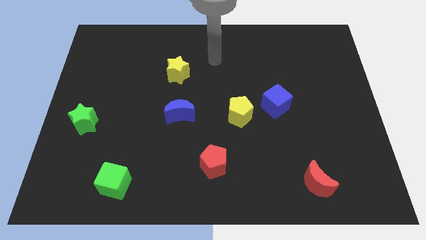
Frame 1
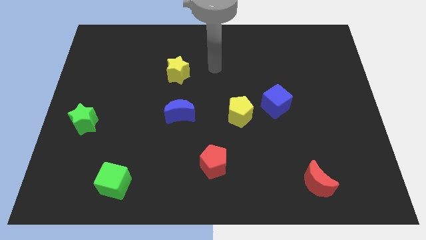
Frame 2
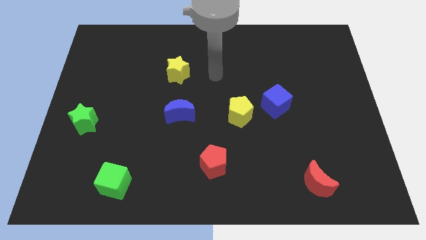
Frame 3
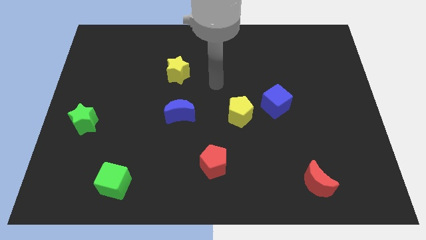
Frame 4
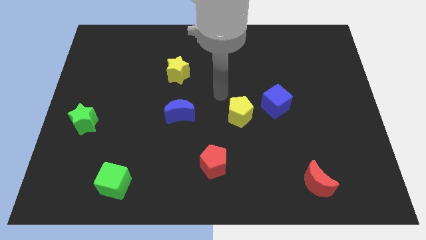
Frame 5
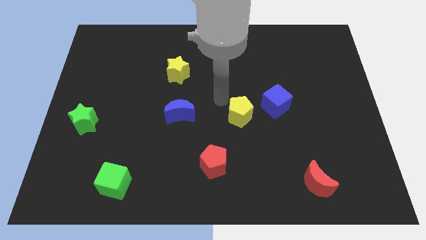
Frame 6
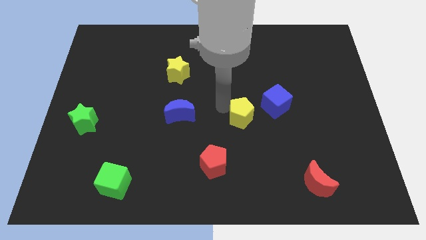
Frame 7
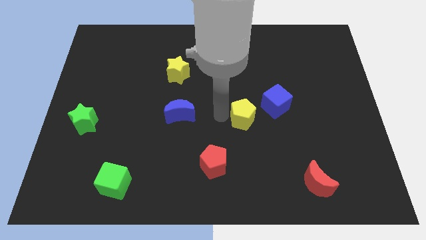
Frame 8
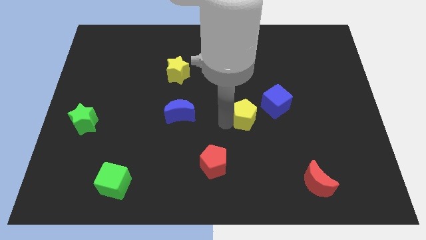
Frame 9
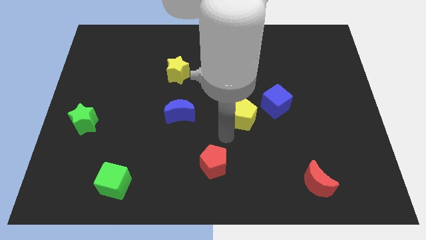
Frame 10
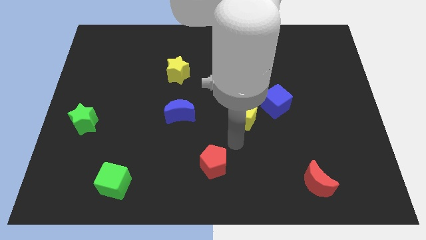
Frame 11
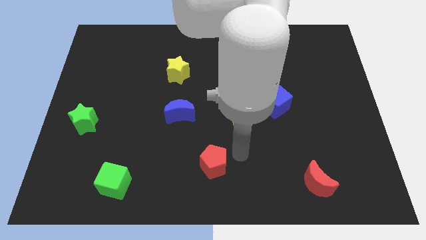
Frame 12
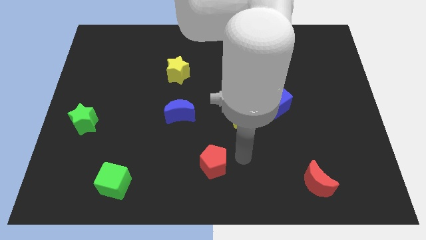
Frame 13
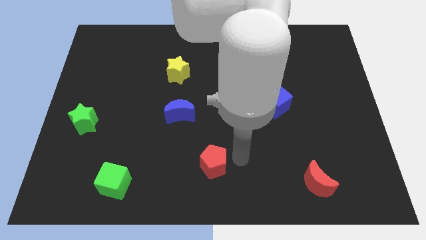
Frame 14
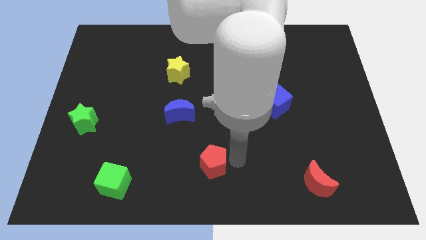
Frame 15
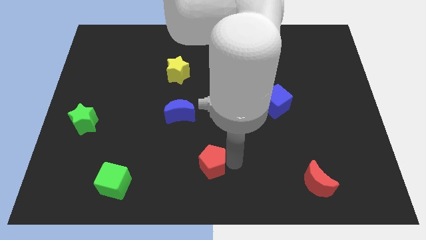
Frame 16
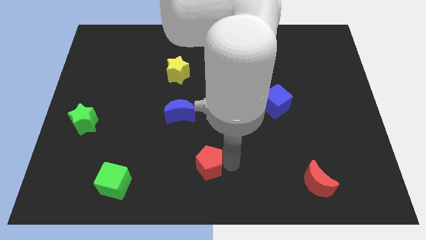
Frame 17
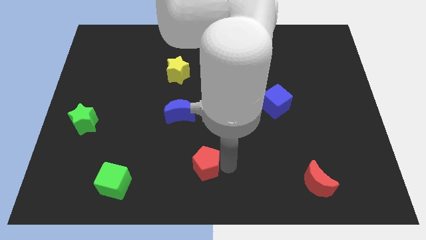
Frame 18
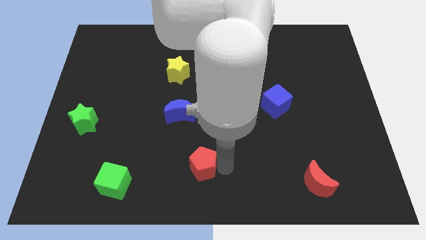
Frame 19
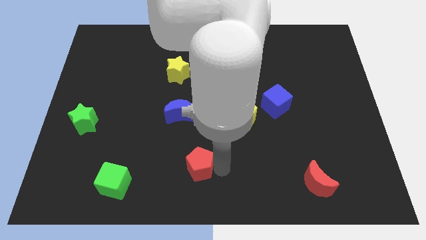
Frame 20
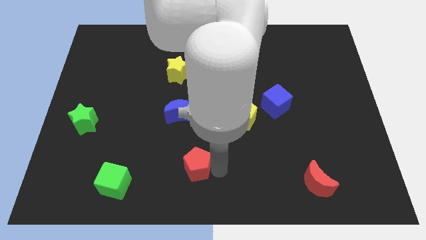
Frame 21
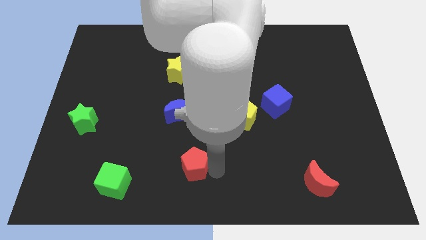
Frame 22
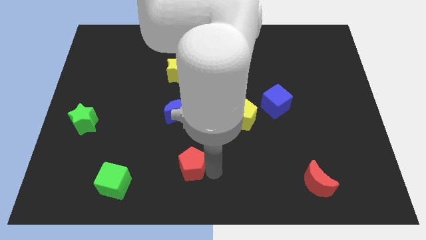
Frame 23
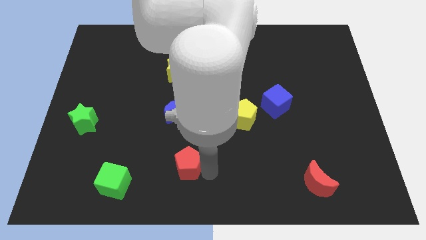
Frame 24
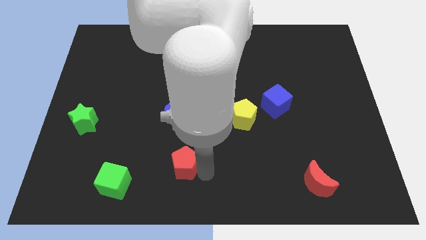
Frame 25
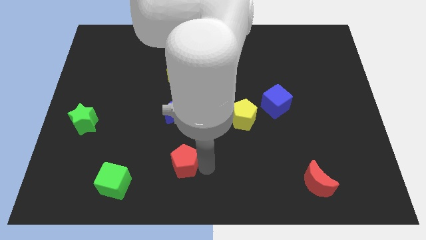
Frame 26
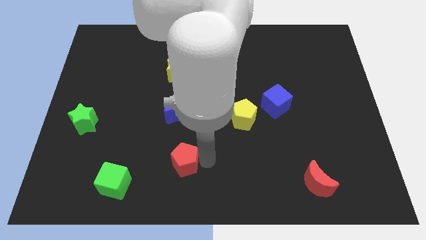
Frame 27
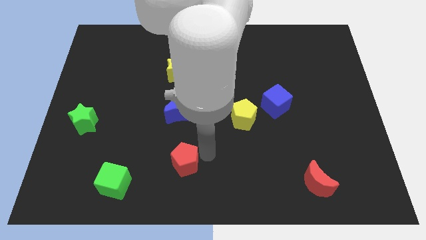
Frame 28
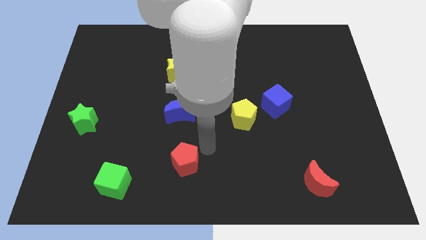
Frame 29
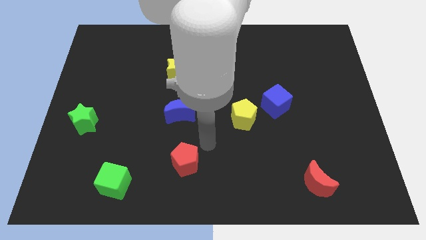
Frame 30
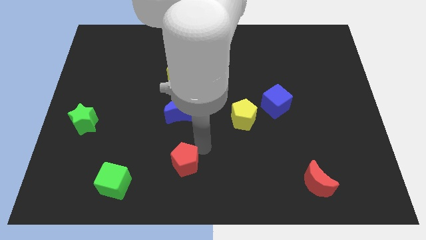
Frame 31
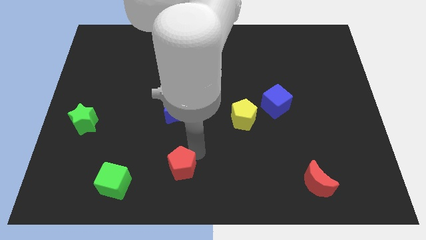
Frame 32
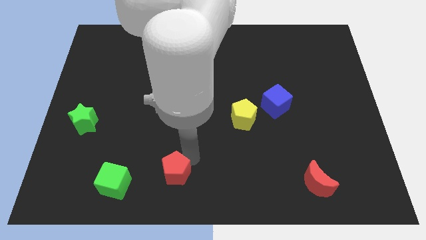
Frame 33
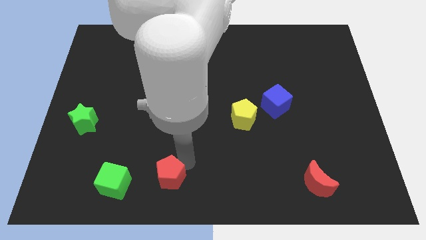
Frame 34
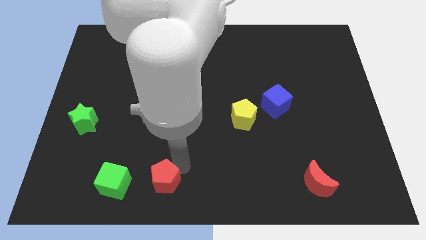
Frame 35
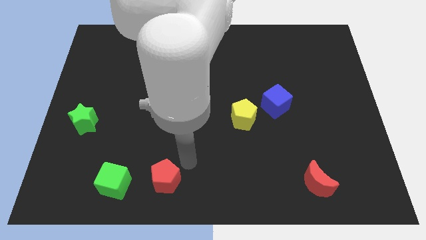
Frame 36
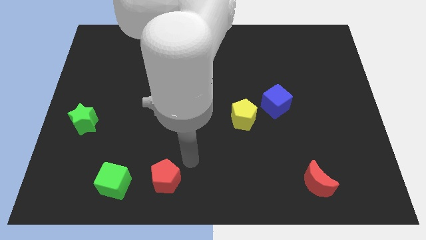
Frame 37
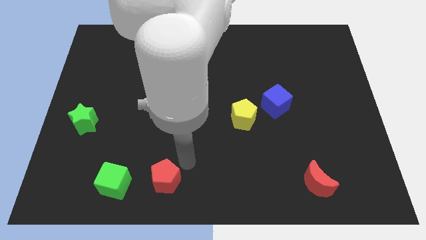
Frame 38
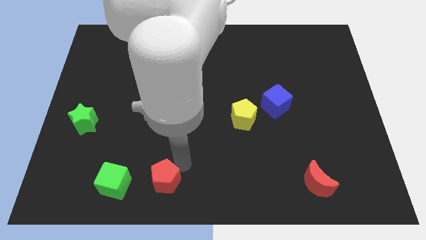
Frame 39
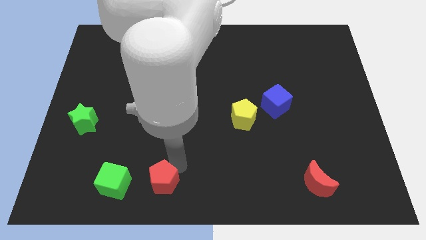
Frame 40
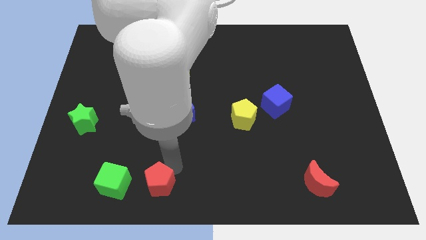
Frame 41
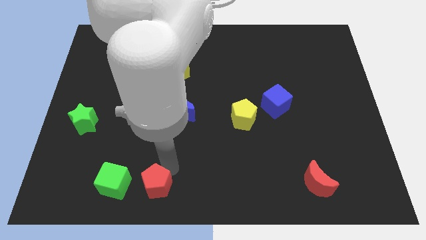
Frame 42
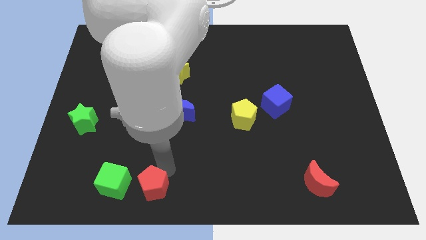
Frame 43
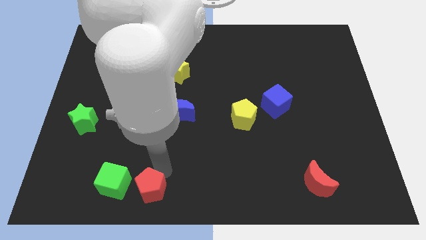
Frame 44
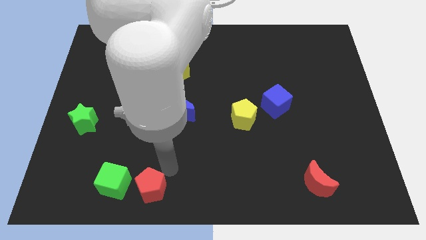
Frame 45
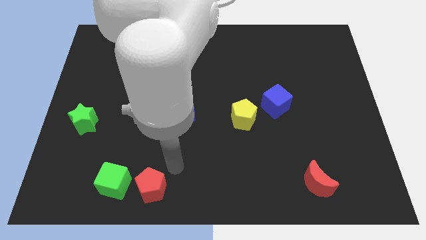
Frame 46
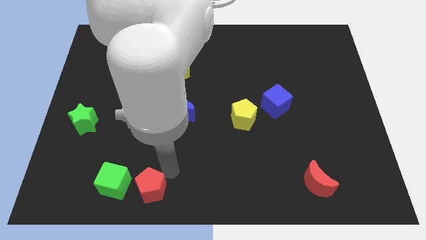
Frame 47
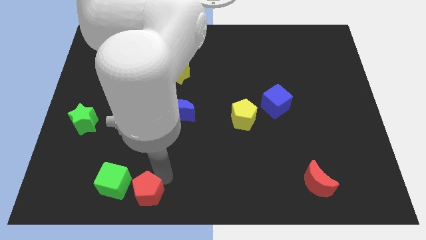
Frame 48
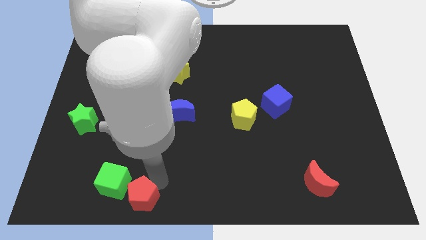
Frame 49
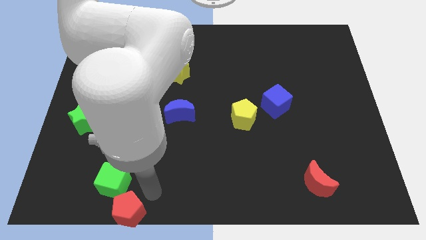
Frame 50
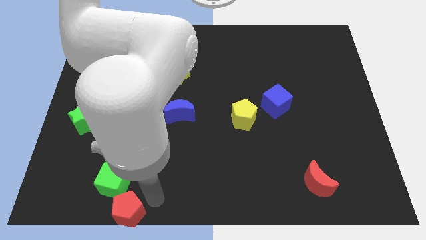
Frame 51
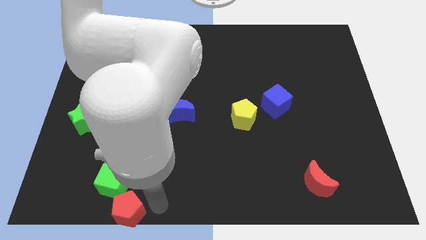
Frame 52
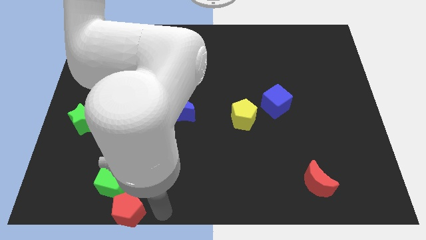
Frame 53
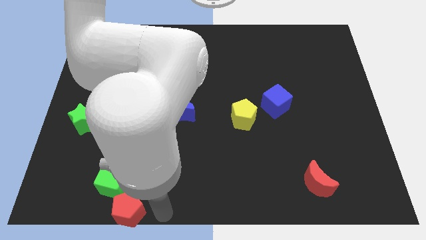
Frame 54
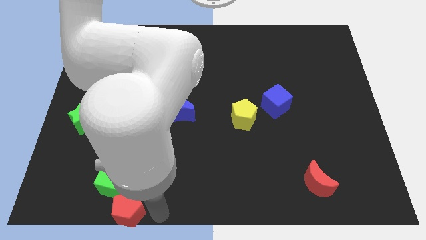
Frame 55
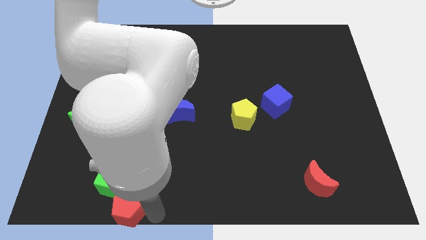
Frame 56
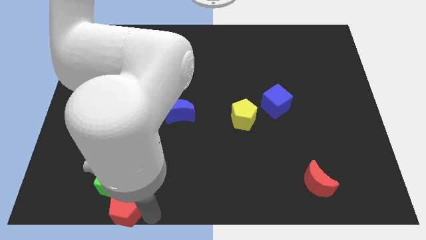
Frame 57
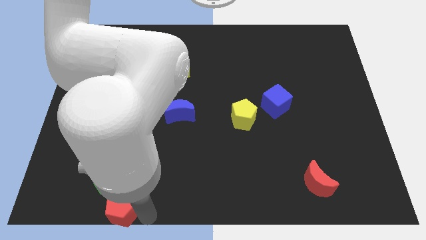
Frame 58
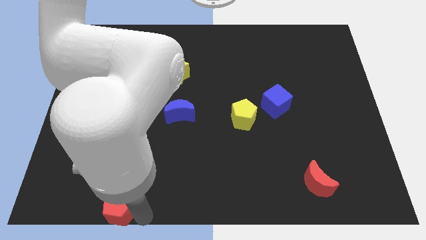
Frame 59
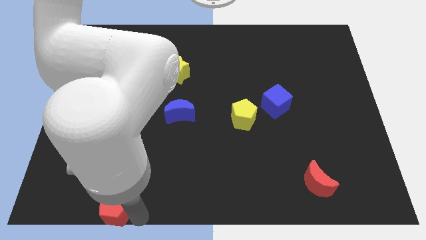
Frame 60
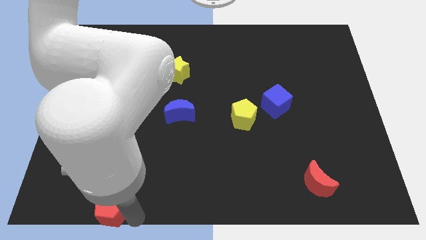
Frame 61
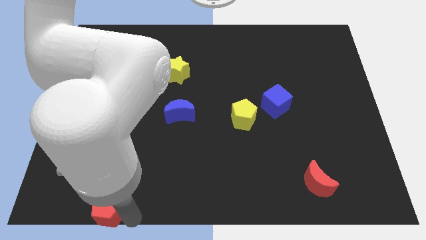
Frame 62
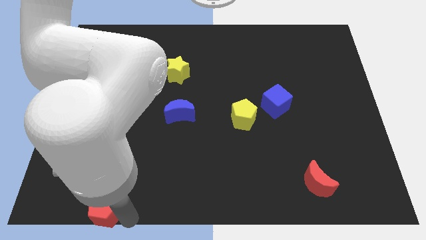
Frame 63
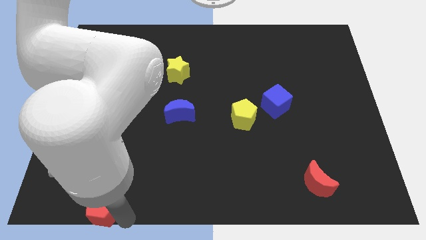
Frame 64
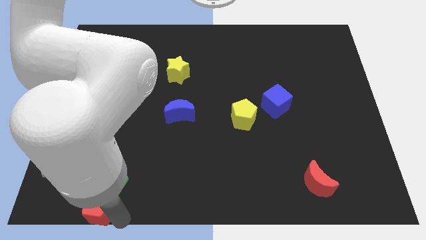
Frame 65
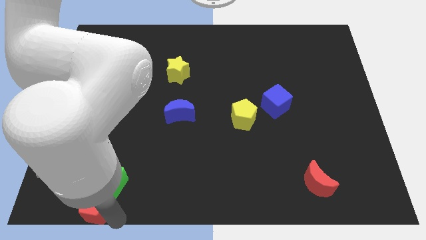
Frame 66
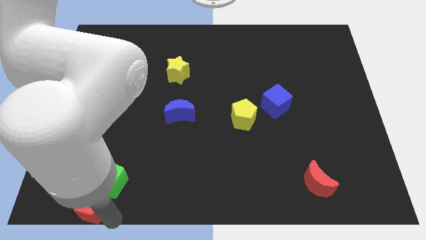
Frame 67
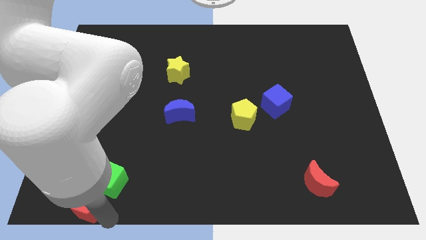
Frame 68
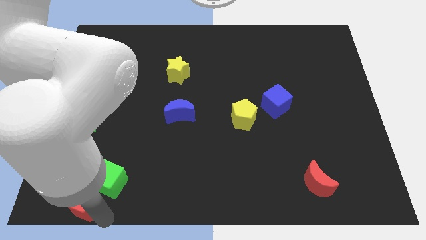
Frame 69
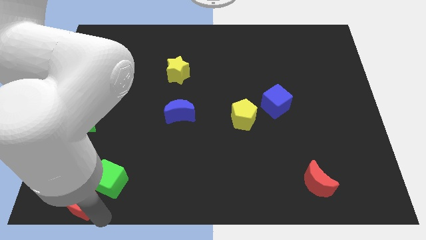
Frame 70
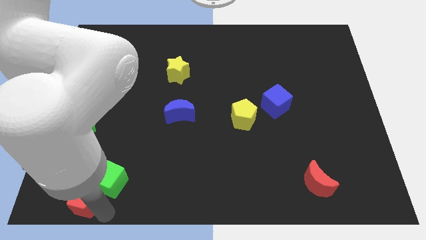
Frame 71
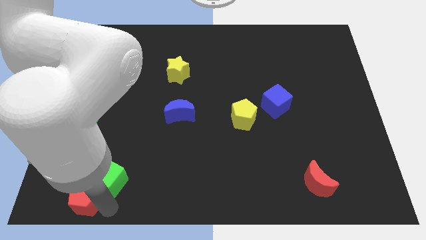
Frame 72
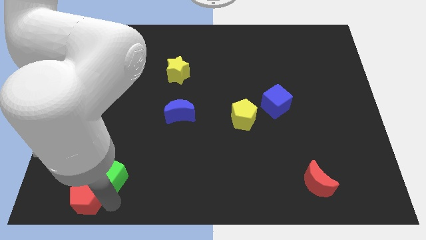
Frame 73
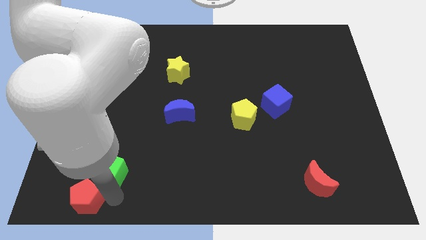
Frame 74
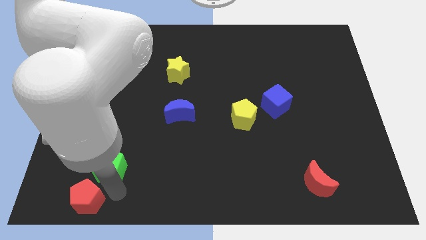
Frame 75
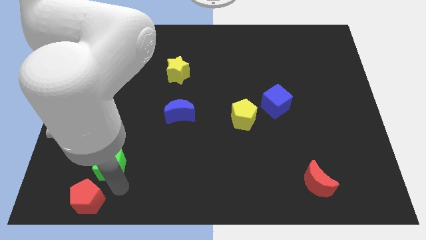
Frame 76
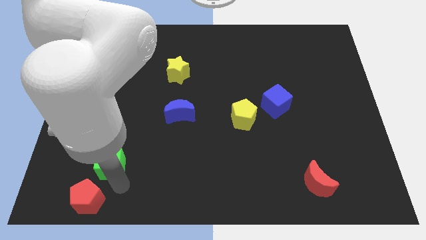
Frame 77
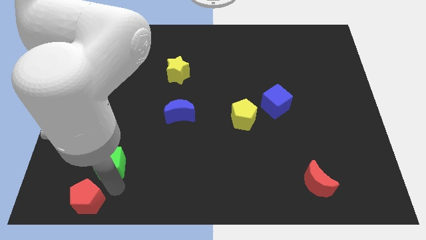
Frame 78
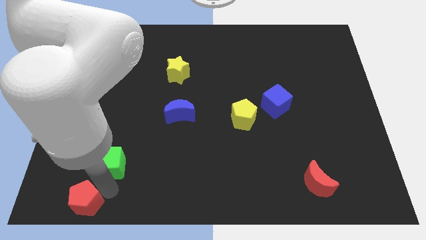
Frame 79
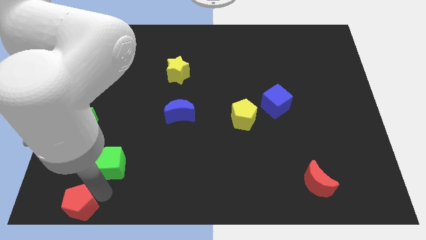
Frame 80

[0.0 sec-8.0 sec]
slide the red pentagon to the bottom left corner

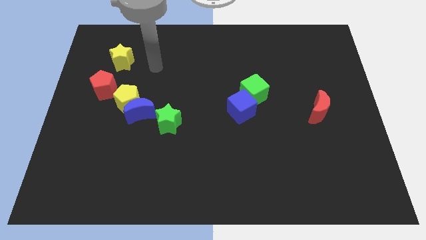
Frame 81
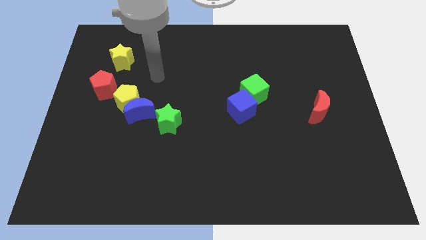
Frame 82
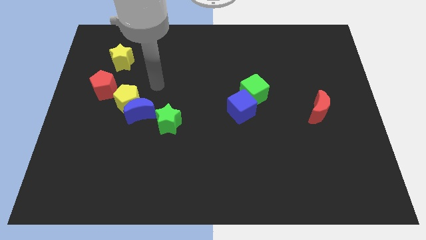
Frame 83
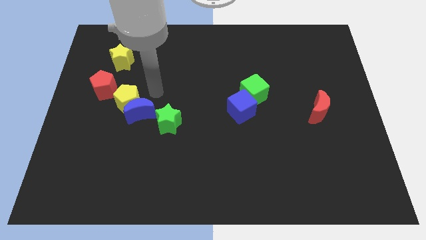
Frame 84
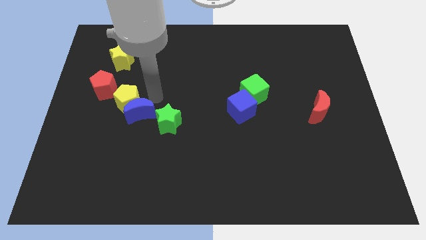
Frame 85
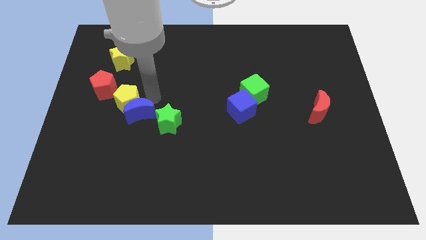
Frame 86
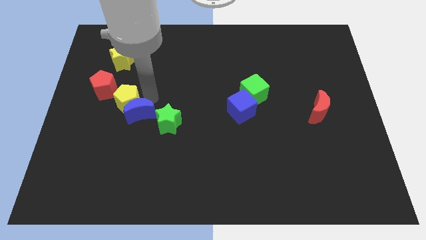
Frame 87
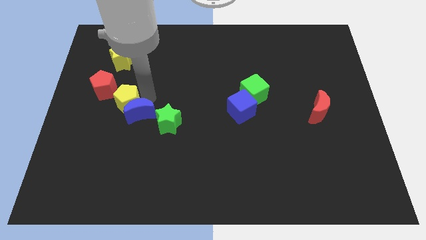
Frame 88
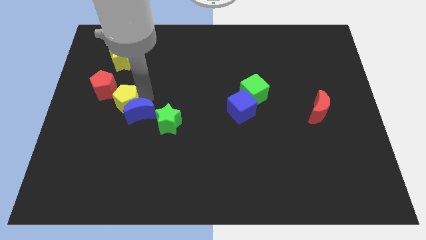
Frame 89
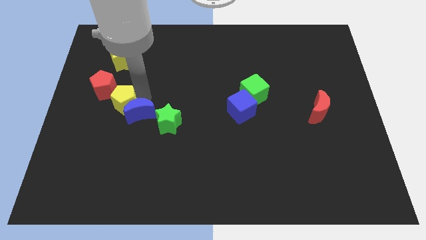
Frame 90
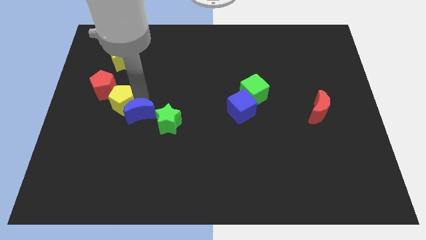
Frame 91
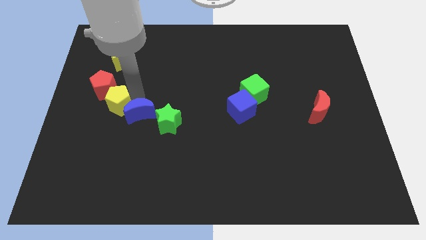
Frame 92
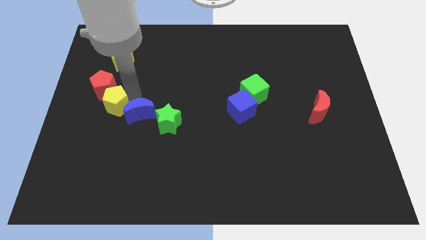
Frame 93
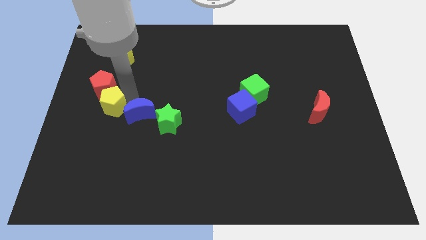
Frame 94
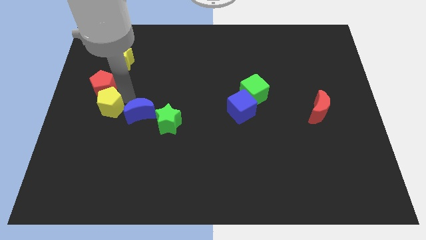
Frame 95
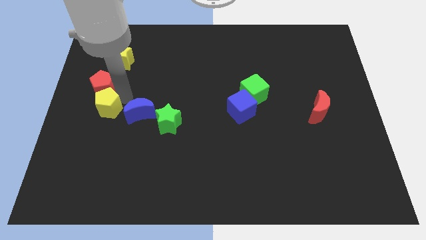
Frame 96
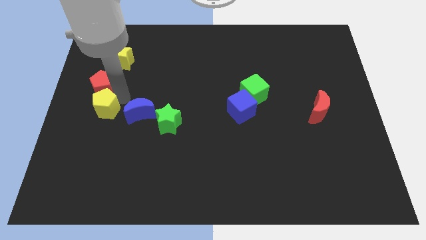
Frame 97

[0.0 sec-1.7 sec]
slide the yellow pentagon to the left side
